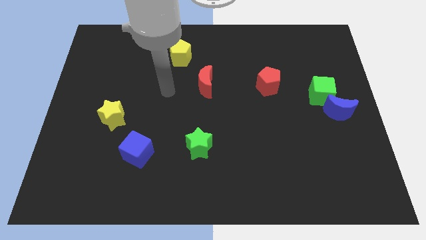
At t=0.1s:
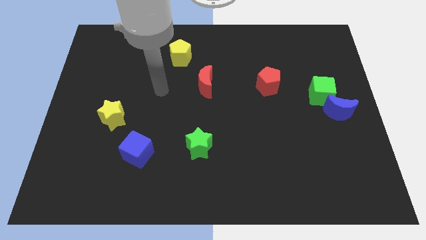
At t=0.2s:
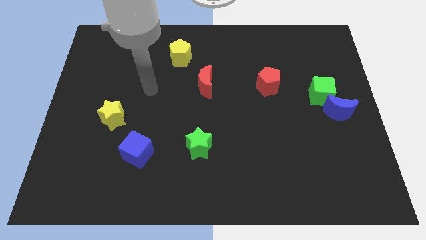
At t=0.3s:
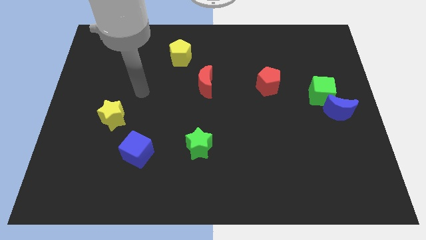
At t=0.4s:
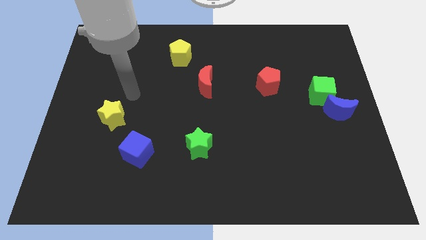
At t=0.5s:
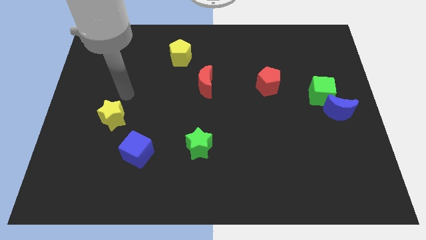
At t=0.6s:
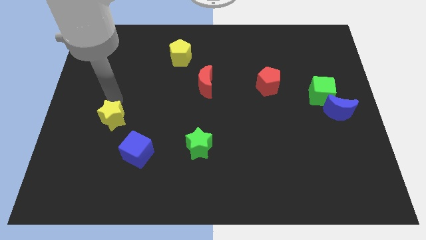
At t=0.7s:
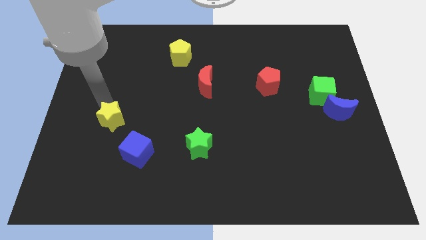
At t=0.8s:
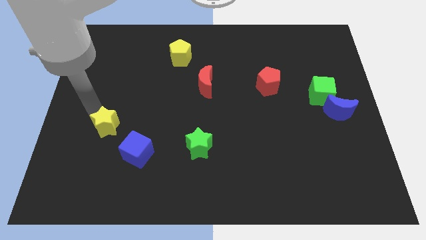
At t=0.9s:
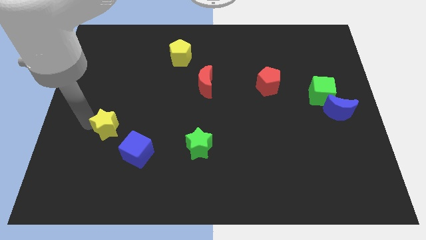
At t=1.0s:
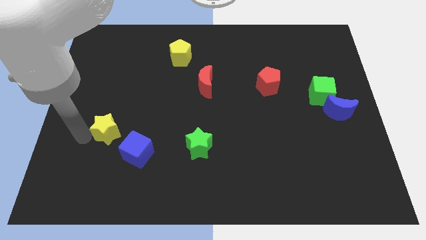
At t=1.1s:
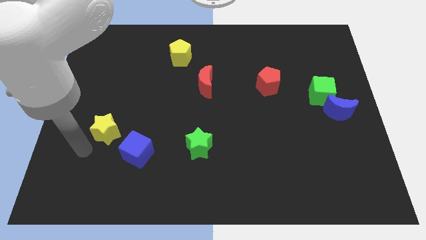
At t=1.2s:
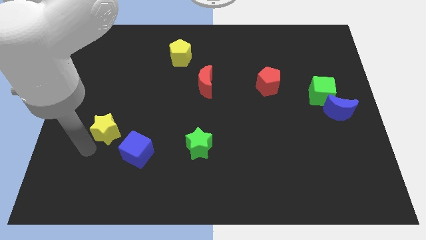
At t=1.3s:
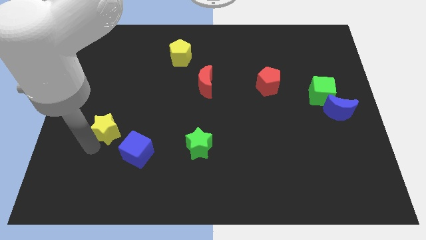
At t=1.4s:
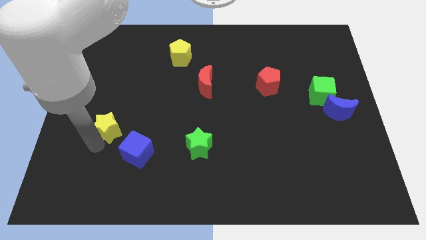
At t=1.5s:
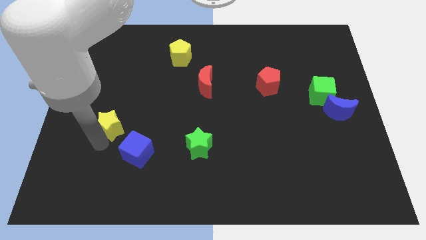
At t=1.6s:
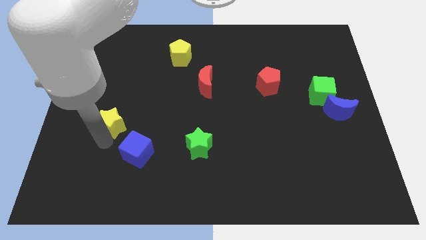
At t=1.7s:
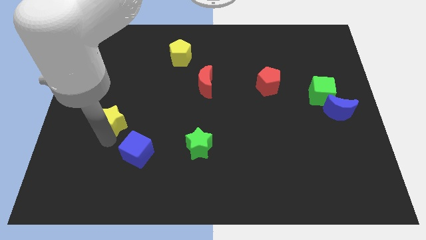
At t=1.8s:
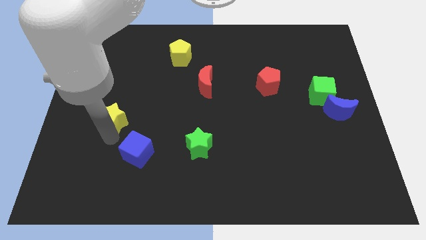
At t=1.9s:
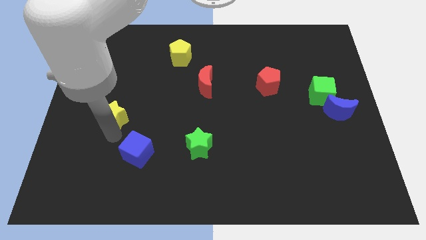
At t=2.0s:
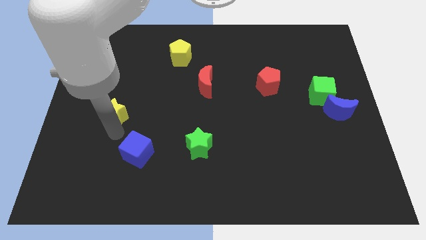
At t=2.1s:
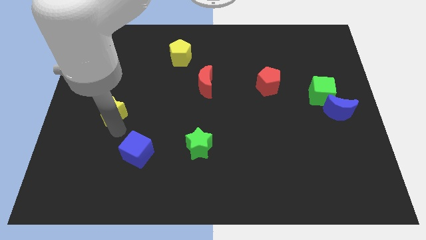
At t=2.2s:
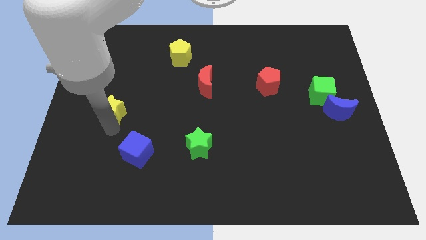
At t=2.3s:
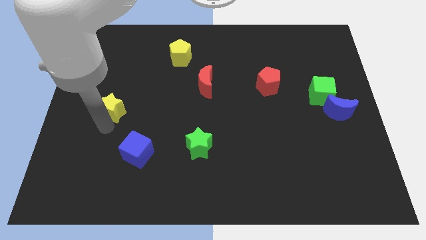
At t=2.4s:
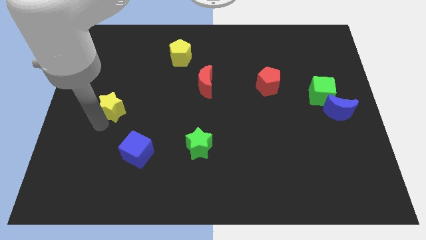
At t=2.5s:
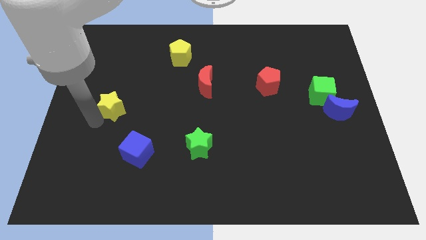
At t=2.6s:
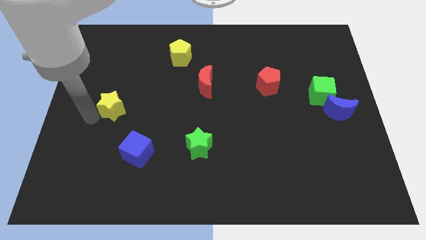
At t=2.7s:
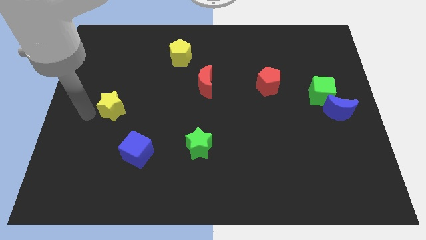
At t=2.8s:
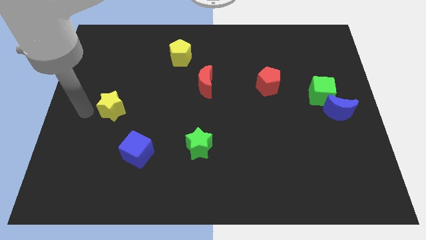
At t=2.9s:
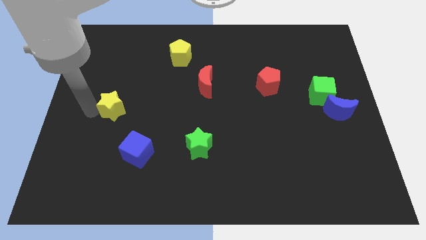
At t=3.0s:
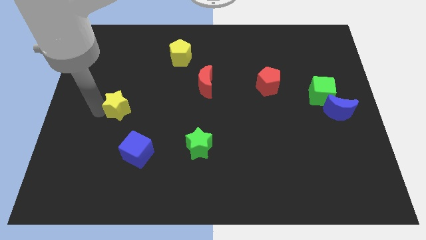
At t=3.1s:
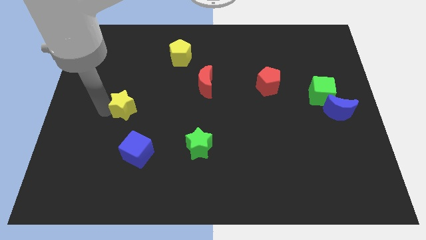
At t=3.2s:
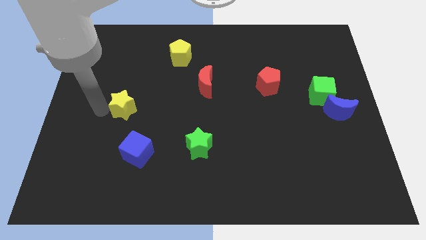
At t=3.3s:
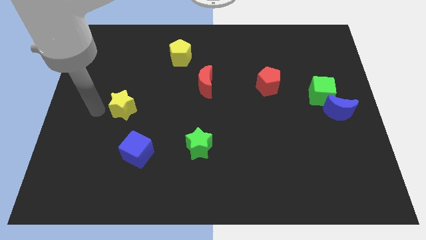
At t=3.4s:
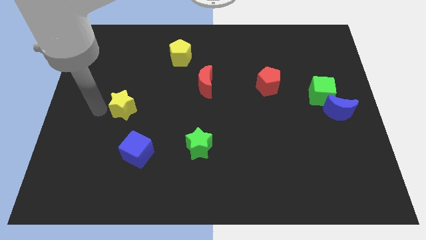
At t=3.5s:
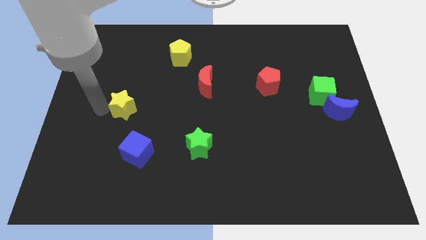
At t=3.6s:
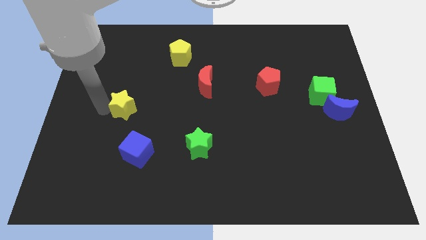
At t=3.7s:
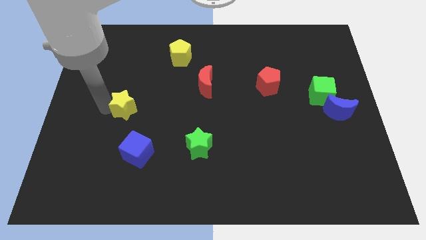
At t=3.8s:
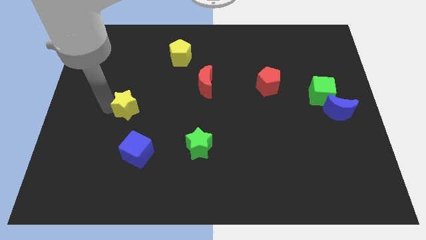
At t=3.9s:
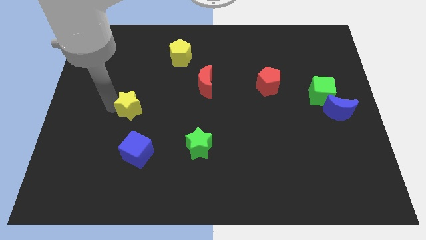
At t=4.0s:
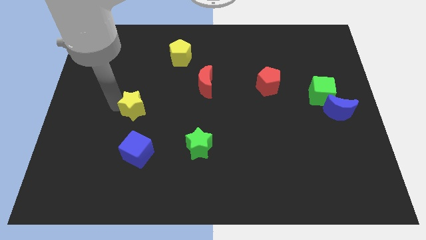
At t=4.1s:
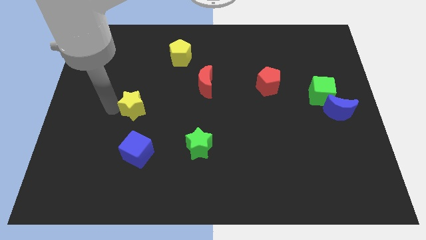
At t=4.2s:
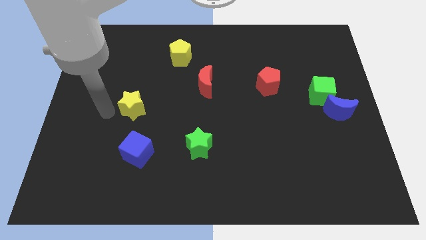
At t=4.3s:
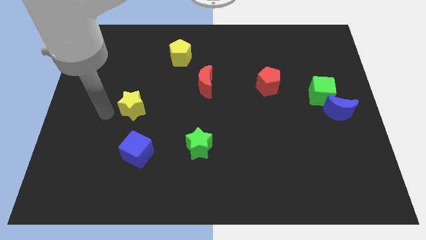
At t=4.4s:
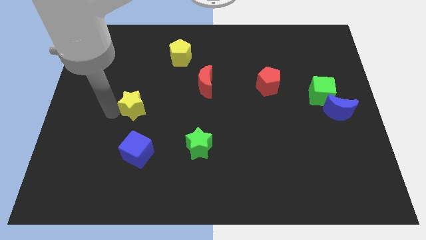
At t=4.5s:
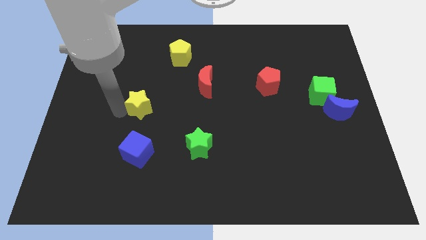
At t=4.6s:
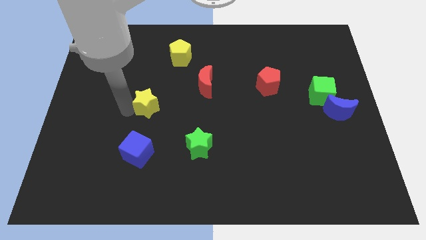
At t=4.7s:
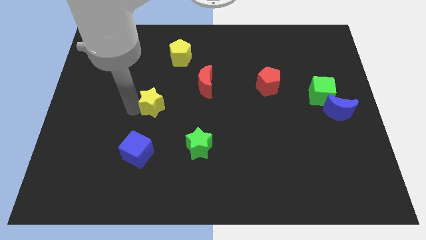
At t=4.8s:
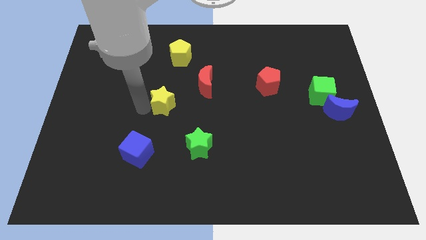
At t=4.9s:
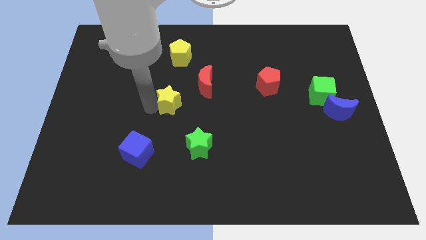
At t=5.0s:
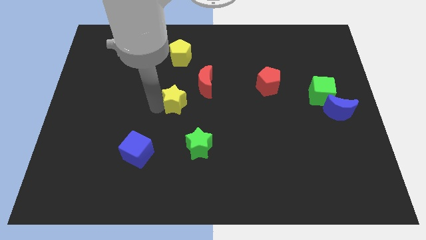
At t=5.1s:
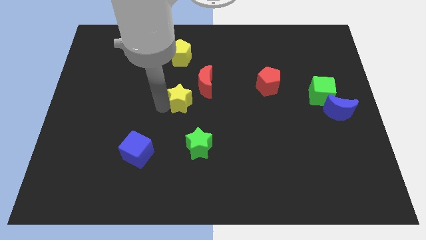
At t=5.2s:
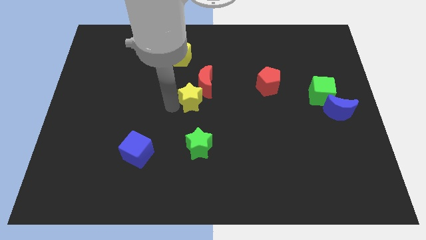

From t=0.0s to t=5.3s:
slide the yellow star close to the red moon

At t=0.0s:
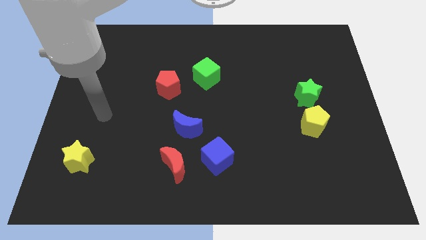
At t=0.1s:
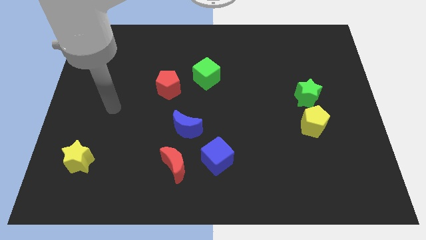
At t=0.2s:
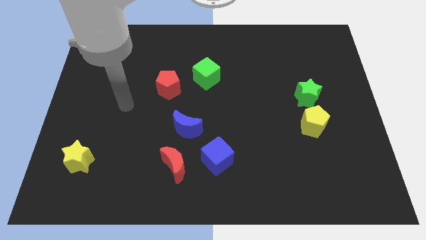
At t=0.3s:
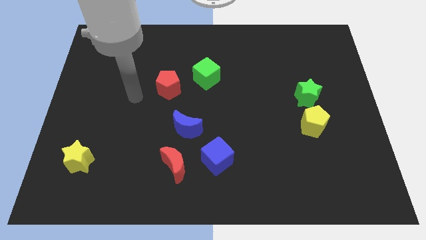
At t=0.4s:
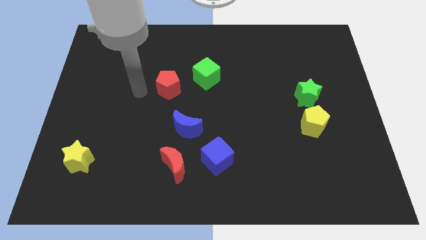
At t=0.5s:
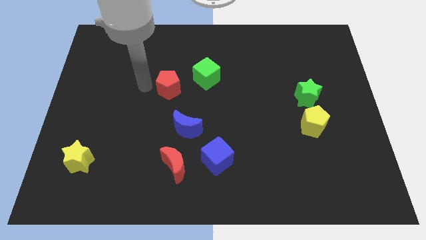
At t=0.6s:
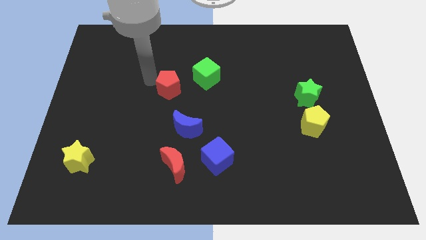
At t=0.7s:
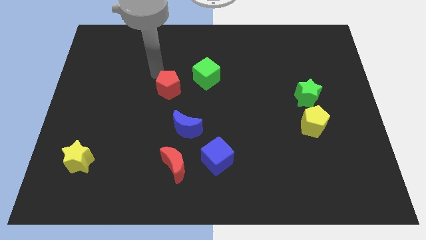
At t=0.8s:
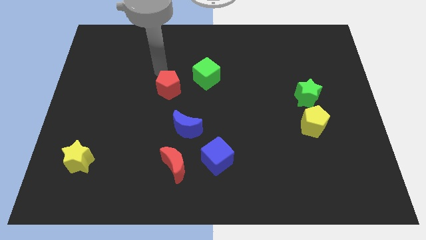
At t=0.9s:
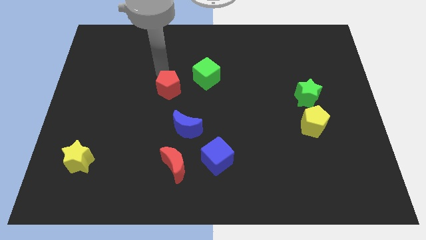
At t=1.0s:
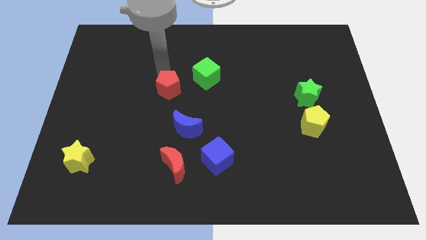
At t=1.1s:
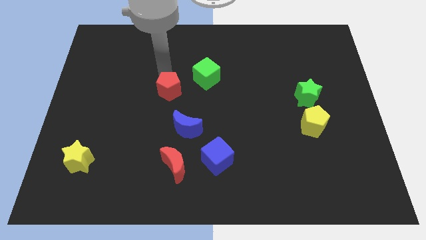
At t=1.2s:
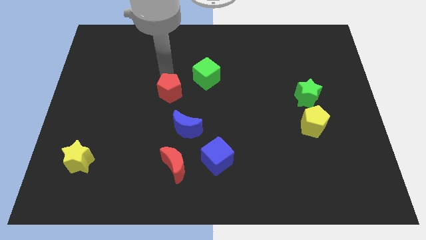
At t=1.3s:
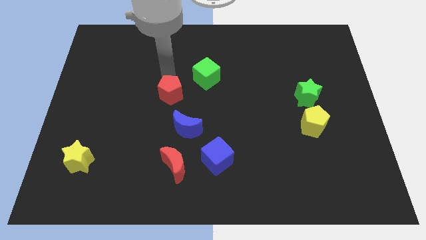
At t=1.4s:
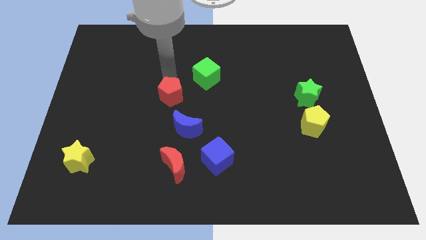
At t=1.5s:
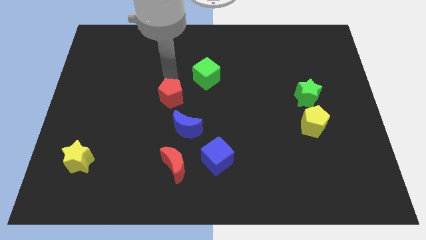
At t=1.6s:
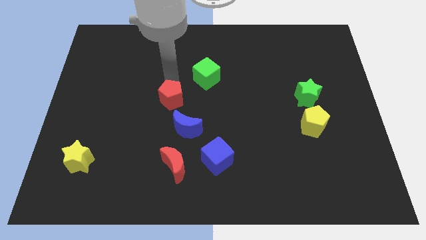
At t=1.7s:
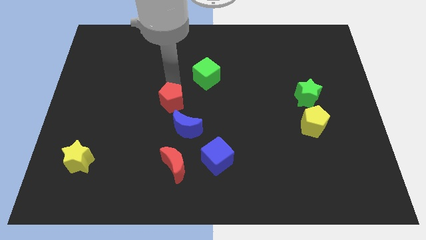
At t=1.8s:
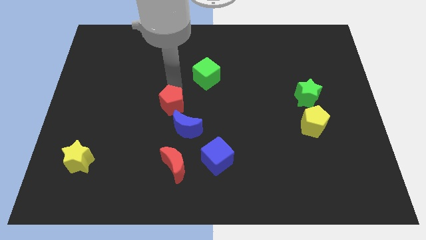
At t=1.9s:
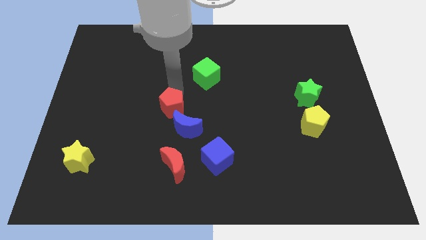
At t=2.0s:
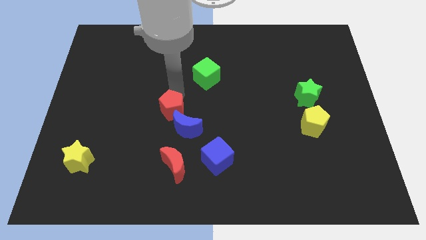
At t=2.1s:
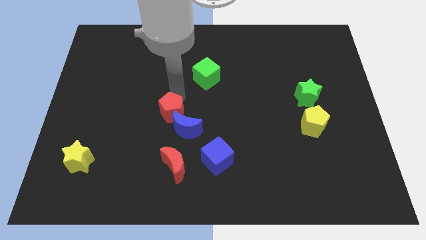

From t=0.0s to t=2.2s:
put the red pentagon next to the blue moon
